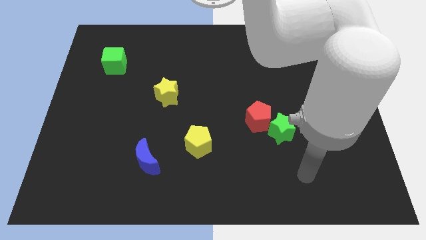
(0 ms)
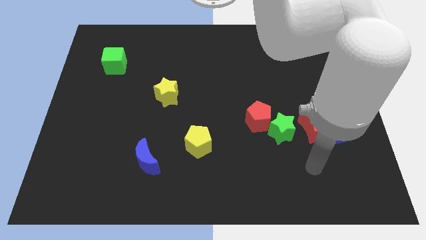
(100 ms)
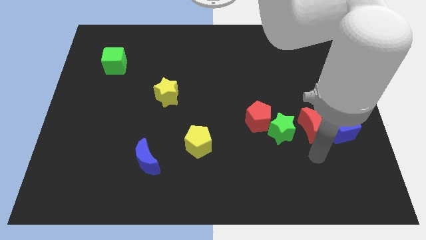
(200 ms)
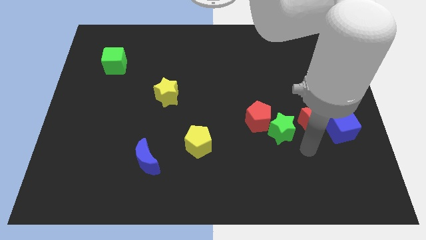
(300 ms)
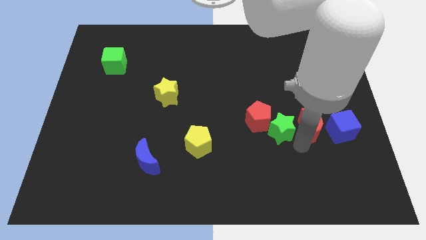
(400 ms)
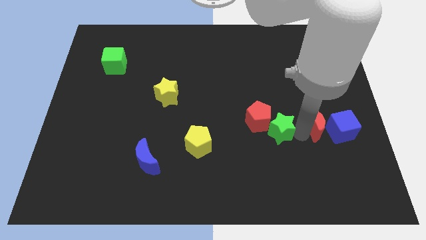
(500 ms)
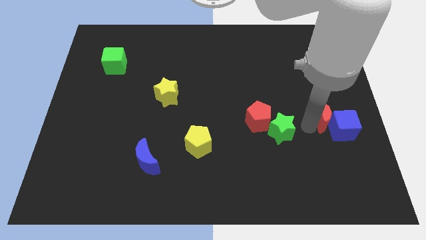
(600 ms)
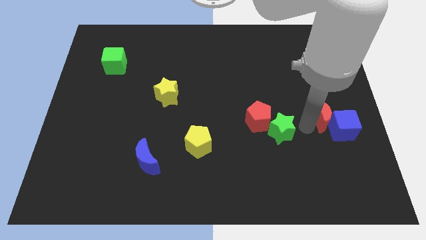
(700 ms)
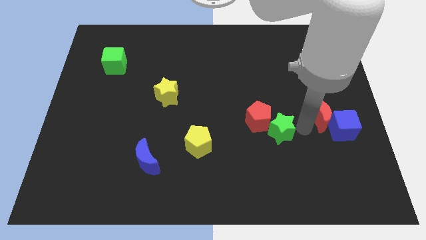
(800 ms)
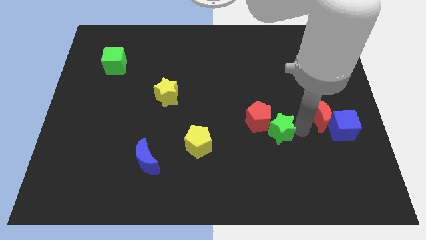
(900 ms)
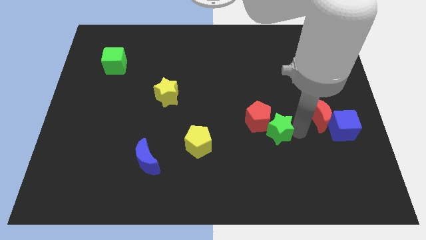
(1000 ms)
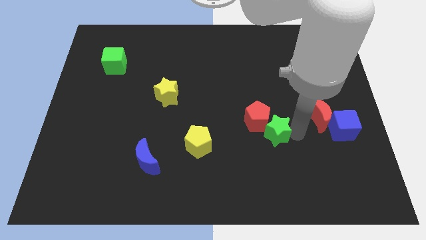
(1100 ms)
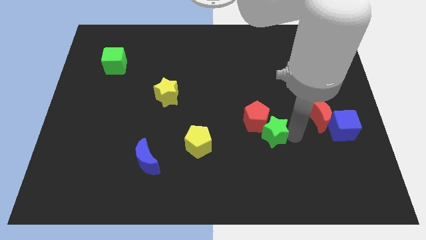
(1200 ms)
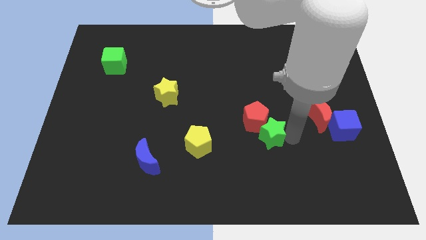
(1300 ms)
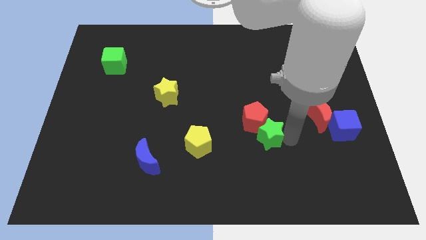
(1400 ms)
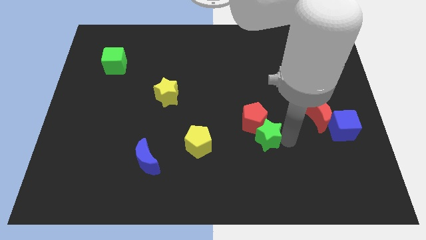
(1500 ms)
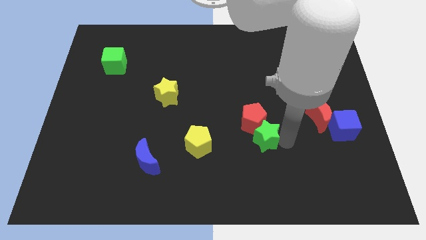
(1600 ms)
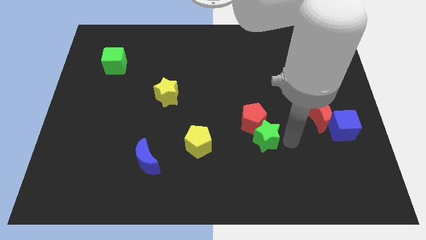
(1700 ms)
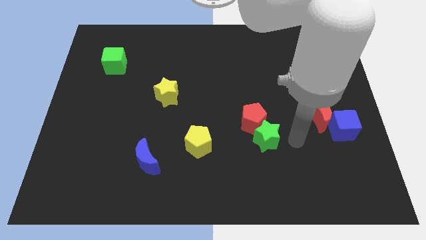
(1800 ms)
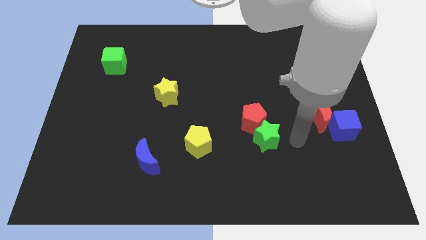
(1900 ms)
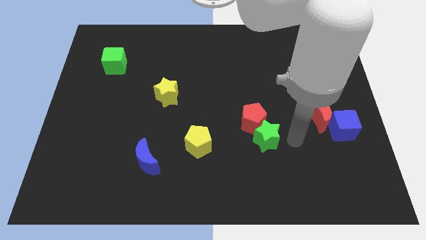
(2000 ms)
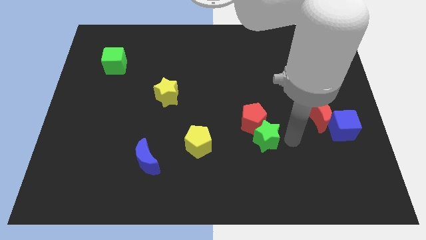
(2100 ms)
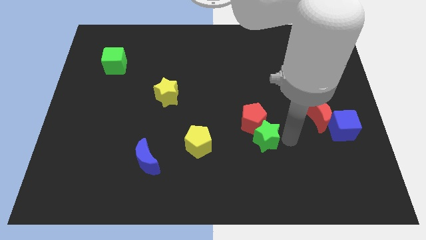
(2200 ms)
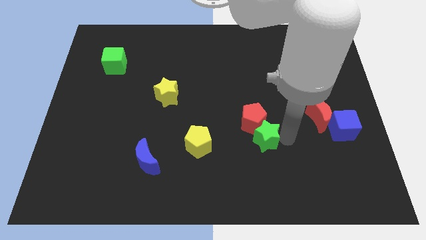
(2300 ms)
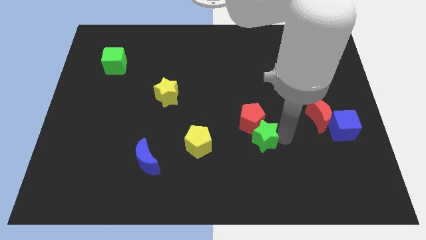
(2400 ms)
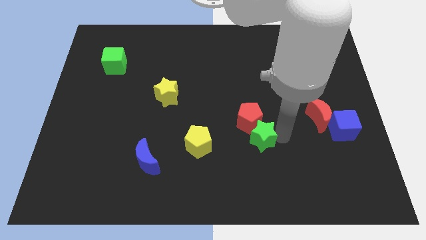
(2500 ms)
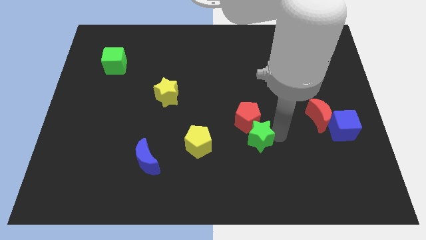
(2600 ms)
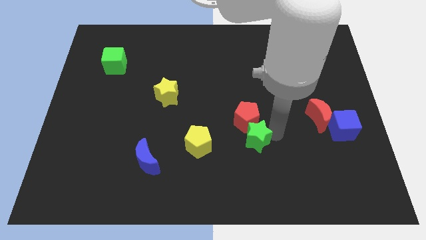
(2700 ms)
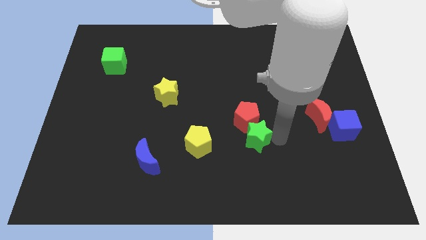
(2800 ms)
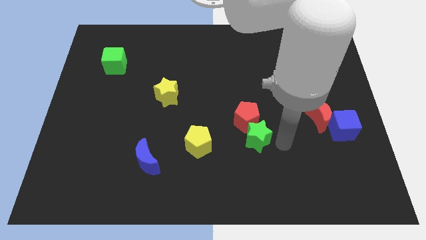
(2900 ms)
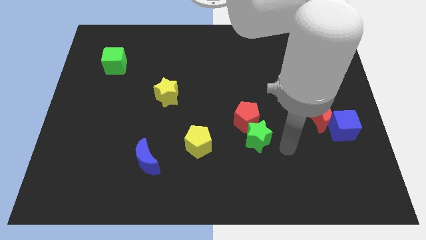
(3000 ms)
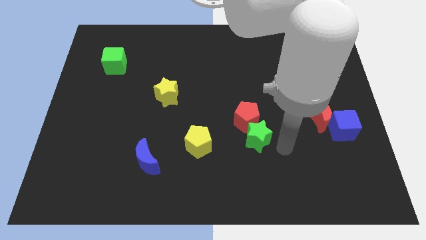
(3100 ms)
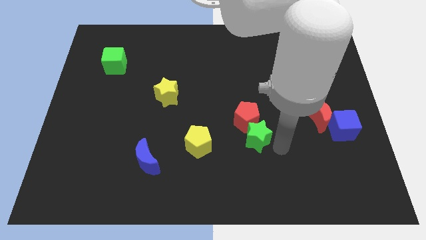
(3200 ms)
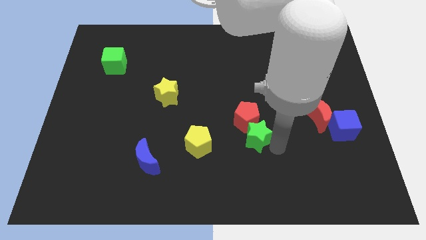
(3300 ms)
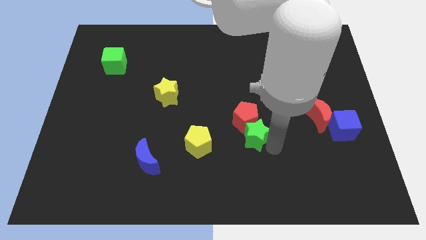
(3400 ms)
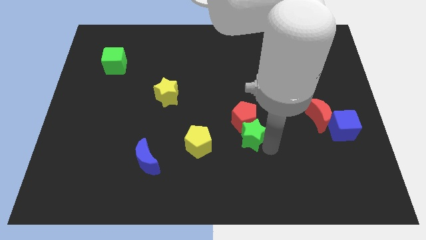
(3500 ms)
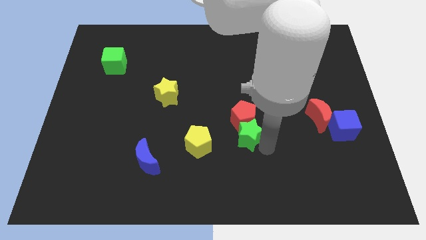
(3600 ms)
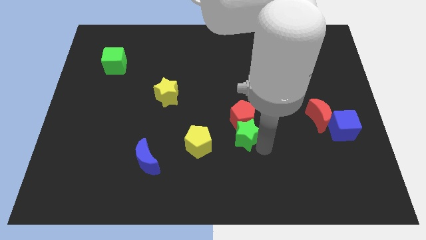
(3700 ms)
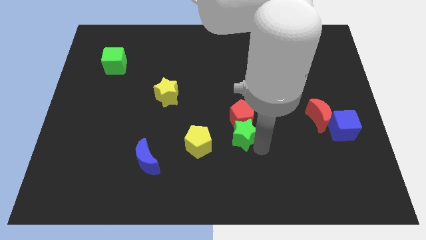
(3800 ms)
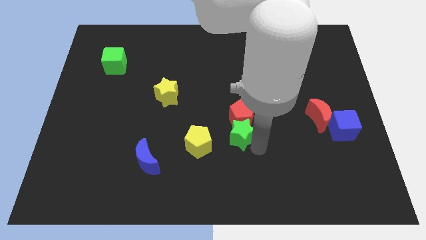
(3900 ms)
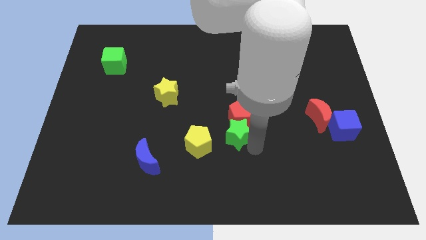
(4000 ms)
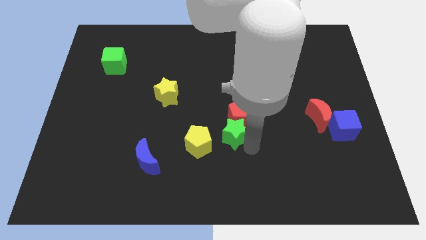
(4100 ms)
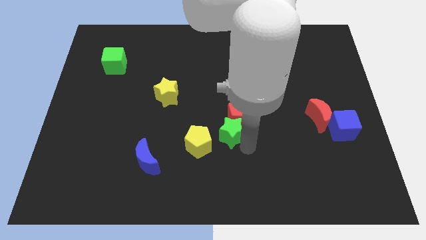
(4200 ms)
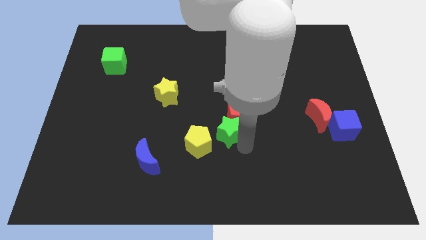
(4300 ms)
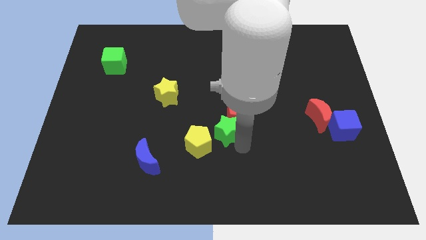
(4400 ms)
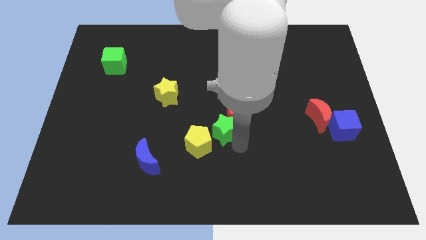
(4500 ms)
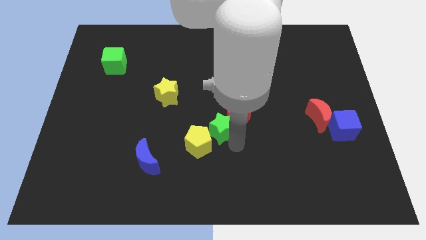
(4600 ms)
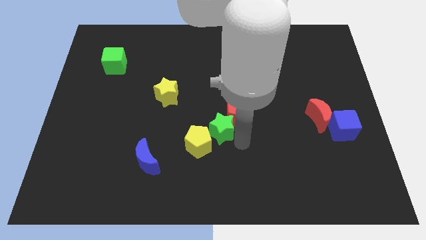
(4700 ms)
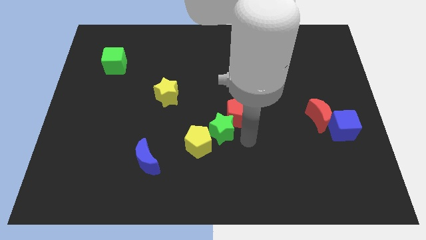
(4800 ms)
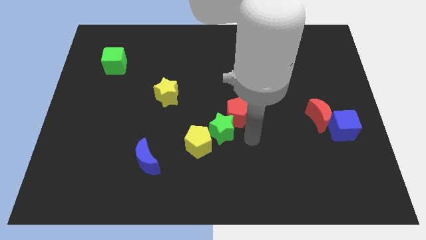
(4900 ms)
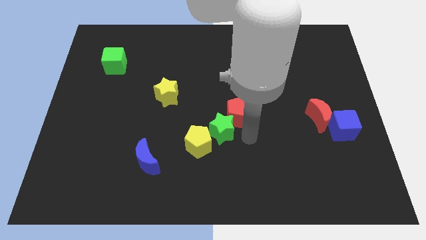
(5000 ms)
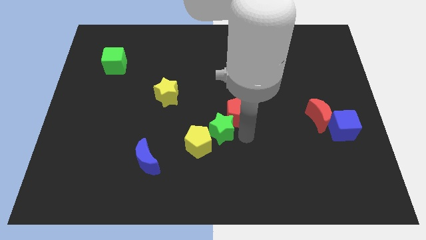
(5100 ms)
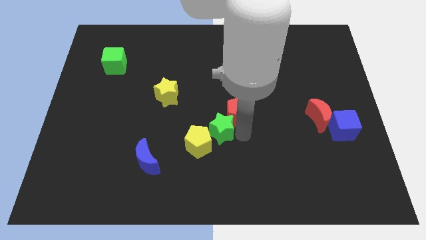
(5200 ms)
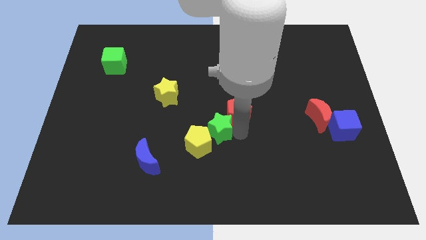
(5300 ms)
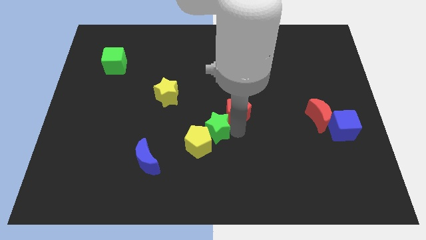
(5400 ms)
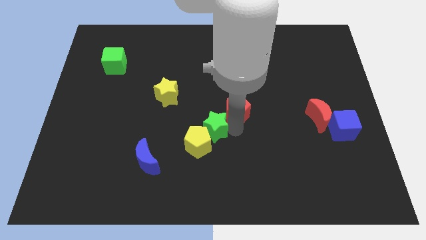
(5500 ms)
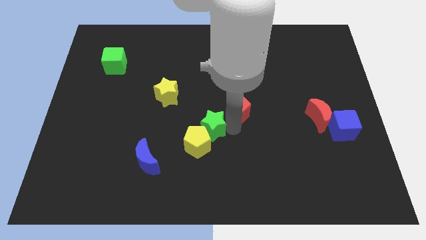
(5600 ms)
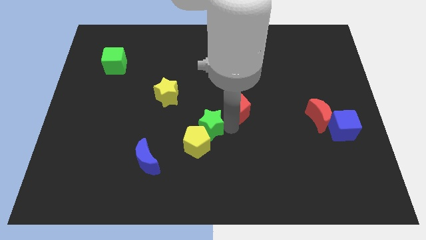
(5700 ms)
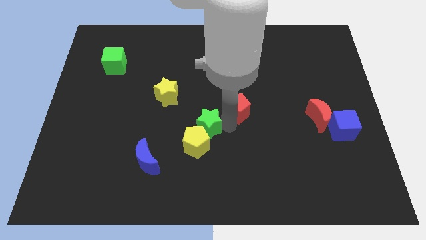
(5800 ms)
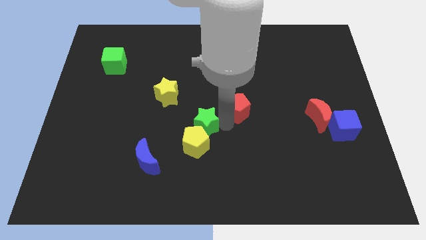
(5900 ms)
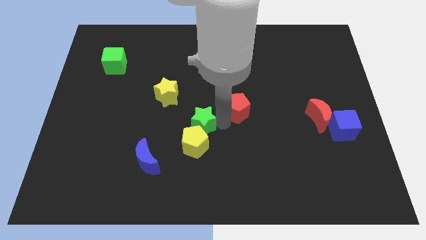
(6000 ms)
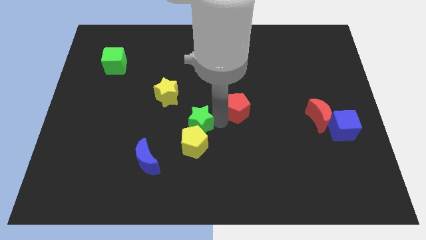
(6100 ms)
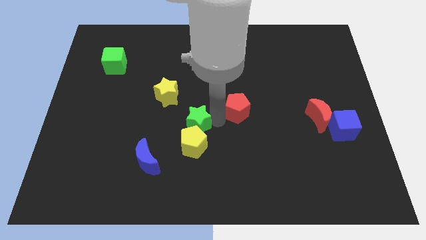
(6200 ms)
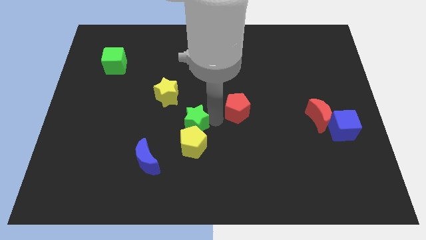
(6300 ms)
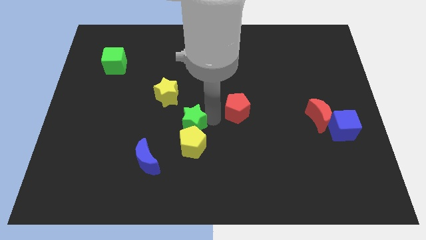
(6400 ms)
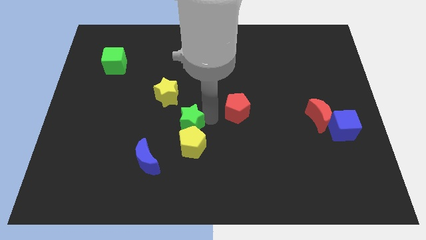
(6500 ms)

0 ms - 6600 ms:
move the green star left

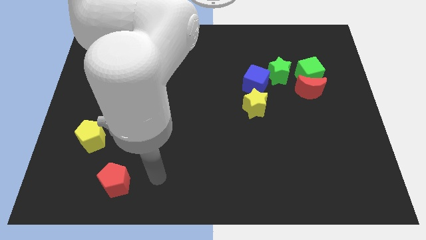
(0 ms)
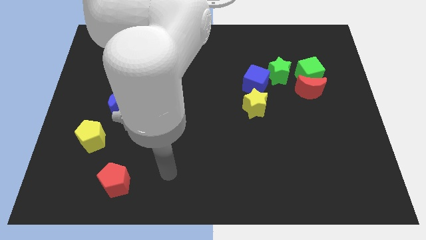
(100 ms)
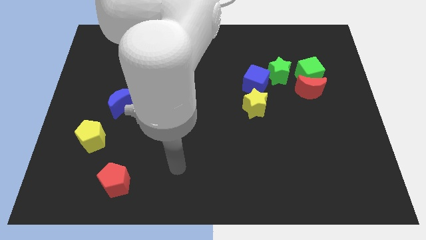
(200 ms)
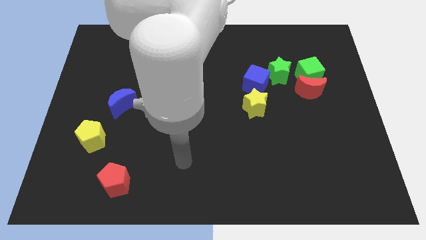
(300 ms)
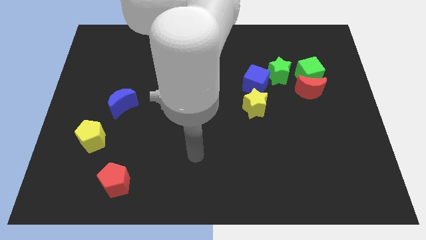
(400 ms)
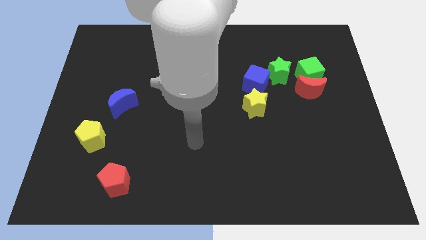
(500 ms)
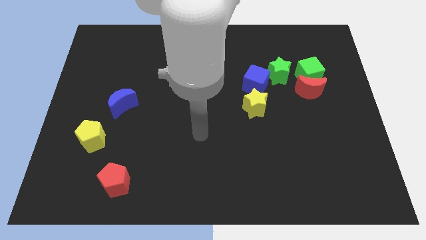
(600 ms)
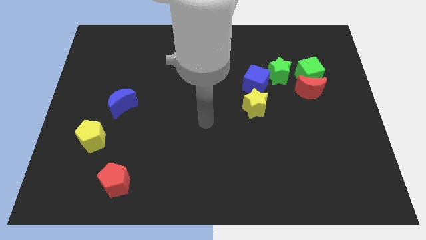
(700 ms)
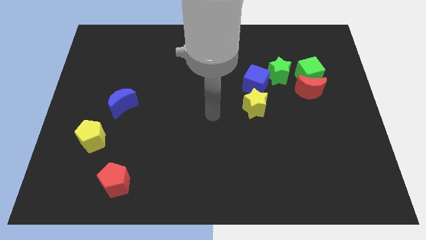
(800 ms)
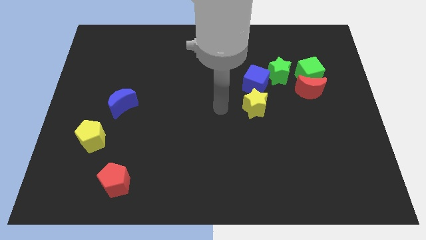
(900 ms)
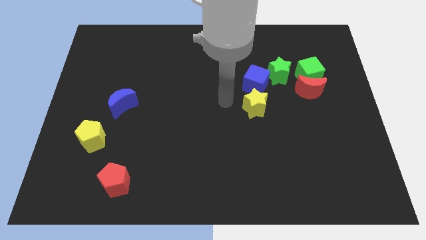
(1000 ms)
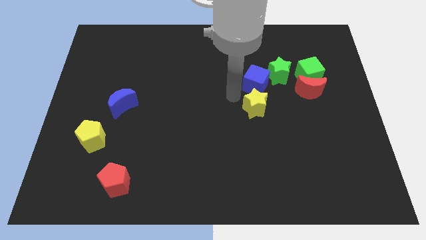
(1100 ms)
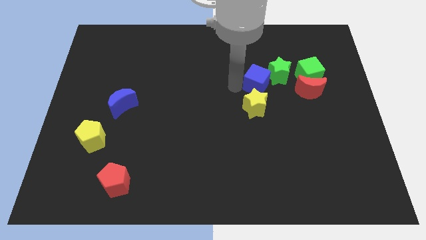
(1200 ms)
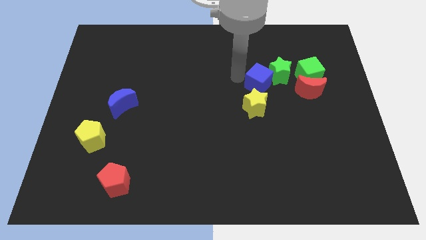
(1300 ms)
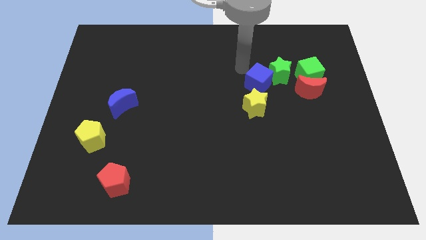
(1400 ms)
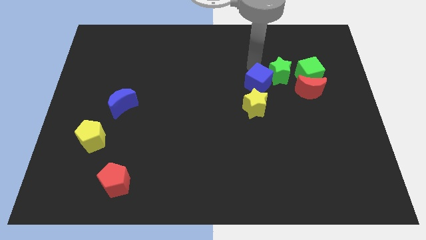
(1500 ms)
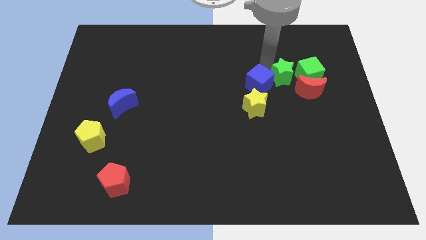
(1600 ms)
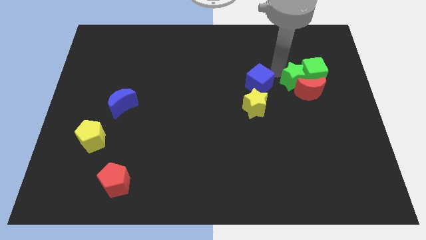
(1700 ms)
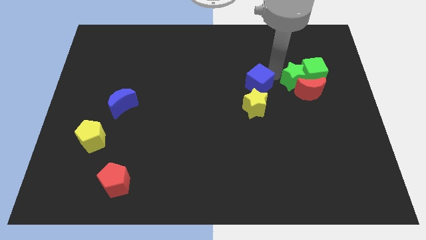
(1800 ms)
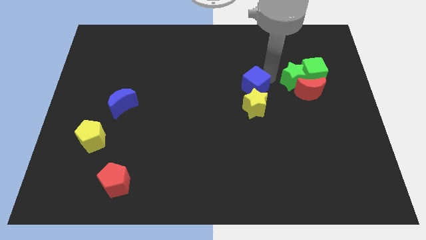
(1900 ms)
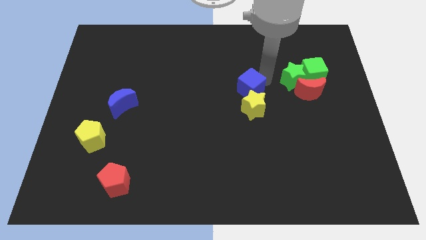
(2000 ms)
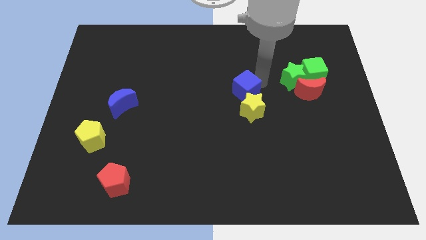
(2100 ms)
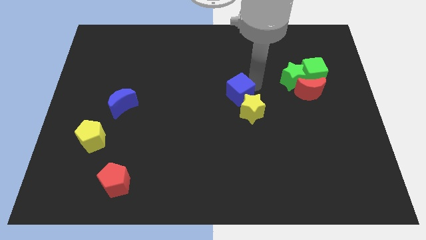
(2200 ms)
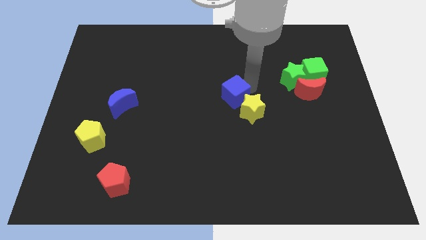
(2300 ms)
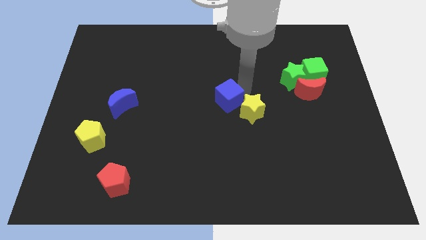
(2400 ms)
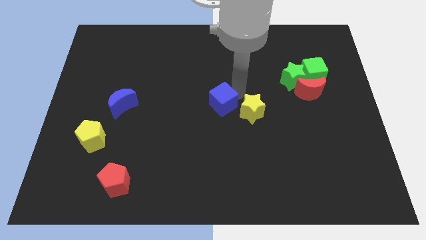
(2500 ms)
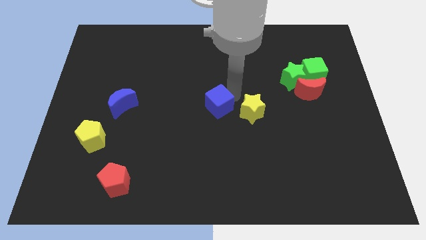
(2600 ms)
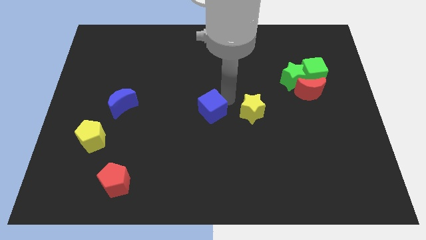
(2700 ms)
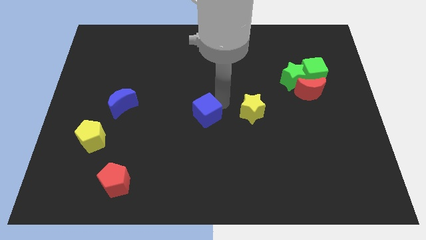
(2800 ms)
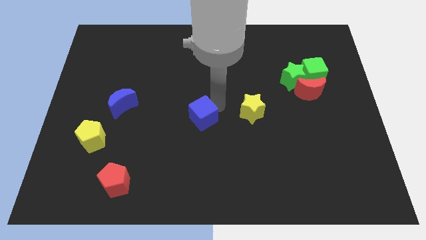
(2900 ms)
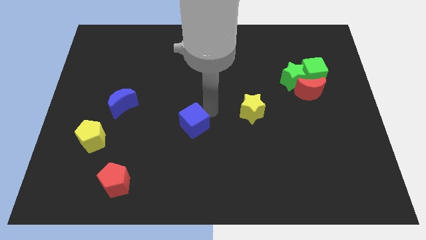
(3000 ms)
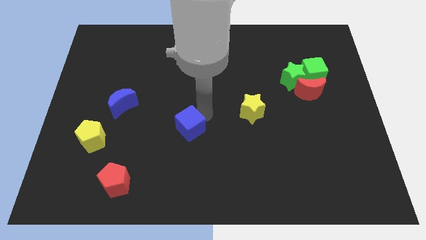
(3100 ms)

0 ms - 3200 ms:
slide the blue cube down and to the left
